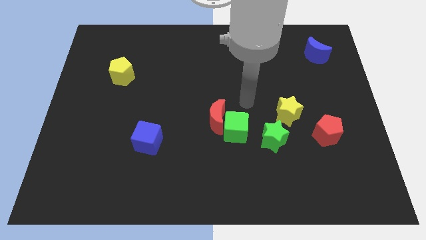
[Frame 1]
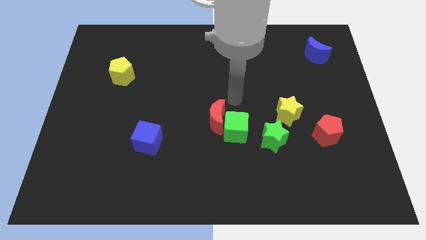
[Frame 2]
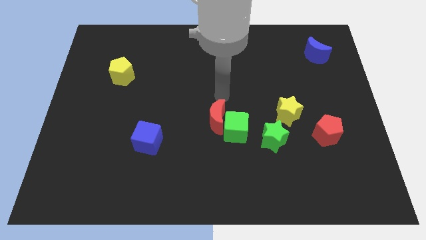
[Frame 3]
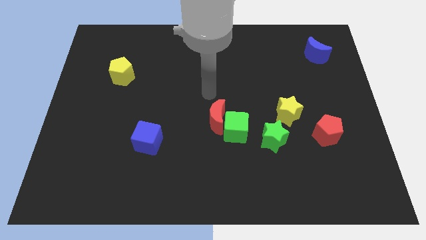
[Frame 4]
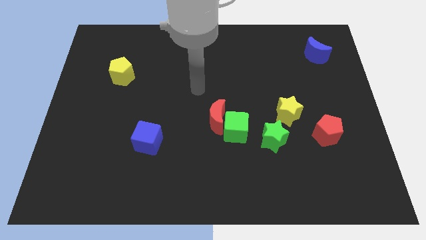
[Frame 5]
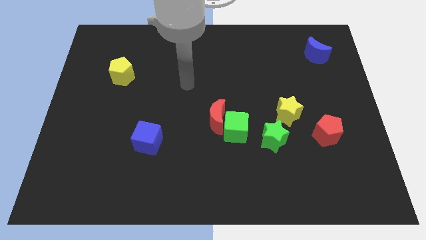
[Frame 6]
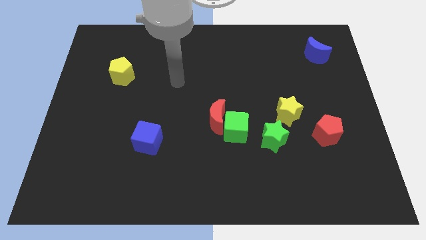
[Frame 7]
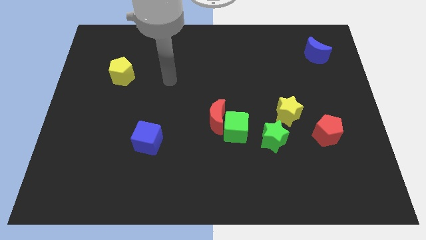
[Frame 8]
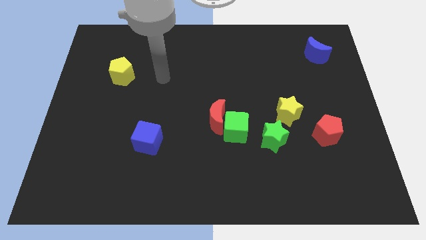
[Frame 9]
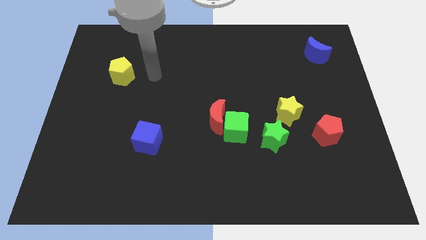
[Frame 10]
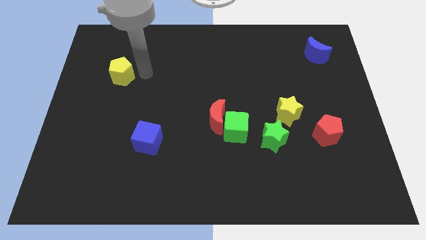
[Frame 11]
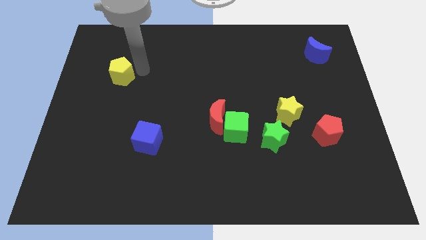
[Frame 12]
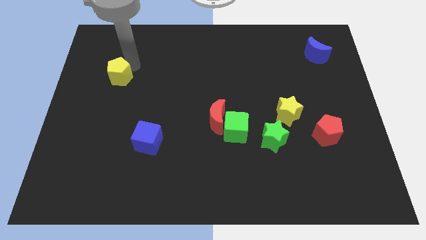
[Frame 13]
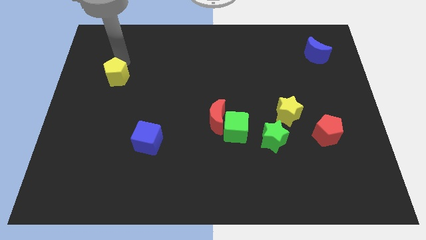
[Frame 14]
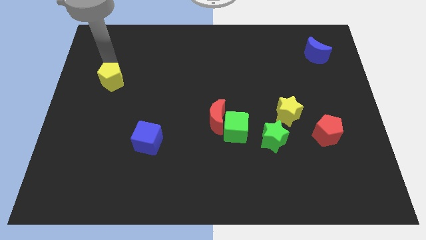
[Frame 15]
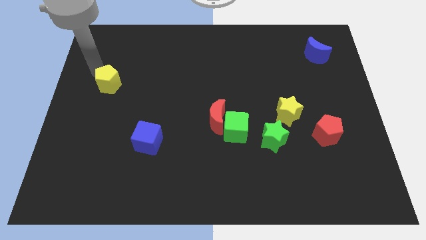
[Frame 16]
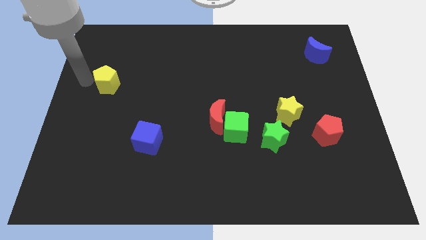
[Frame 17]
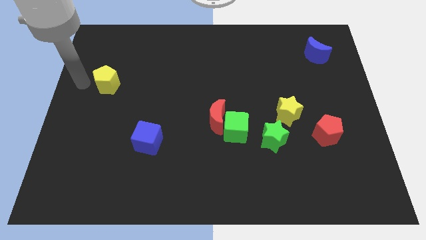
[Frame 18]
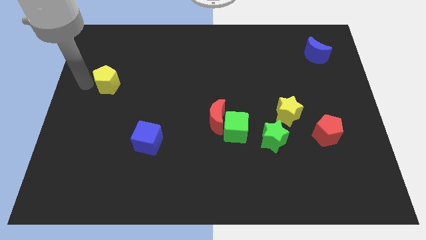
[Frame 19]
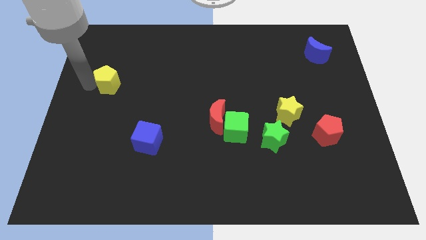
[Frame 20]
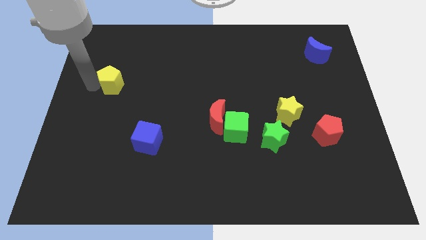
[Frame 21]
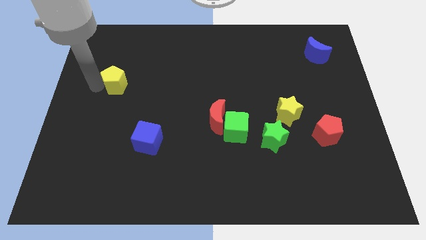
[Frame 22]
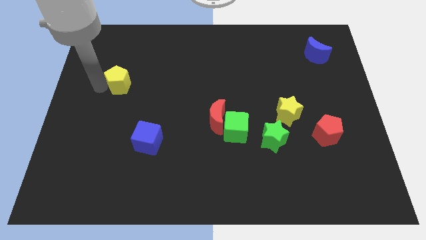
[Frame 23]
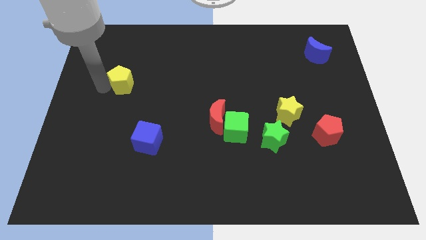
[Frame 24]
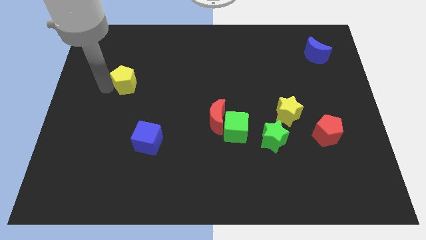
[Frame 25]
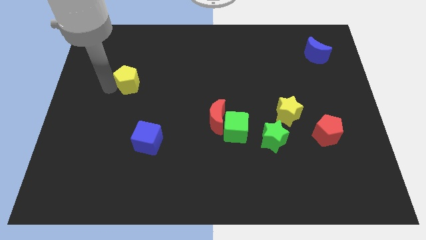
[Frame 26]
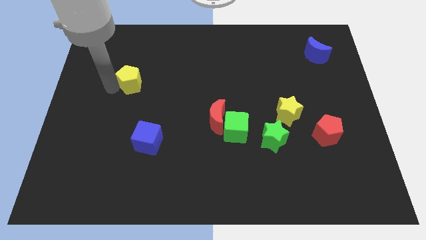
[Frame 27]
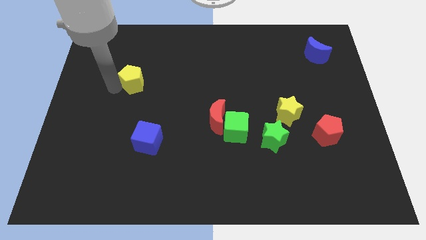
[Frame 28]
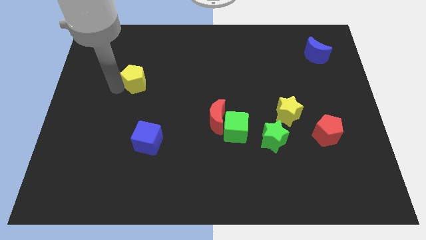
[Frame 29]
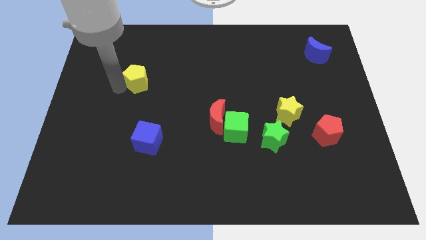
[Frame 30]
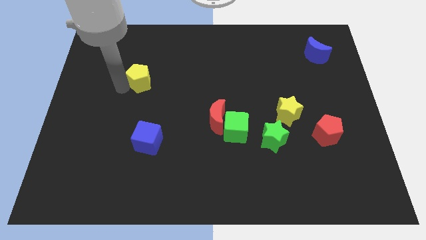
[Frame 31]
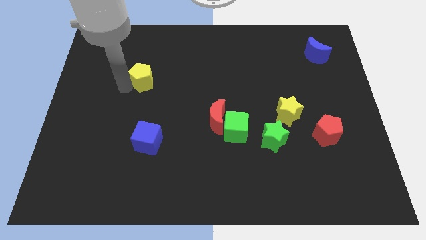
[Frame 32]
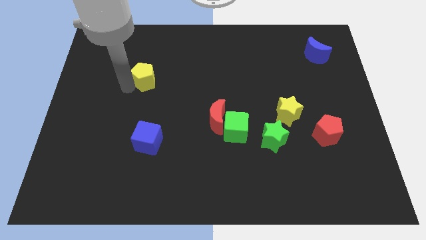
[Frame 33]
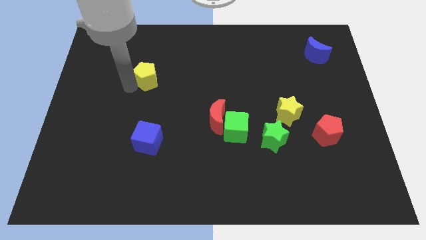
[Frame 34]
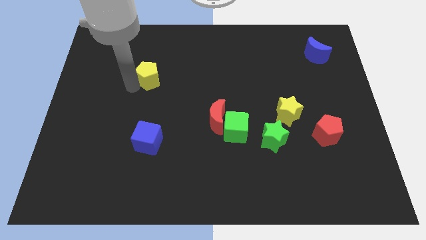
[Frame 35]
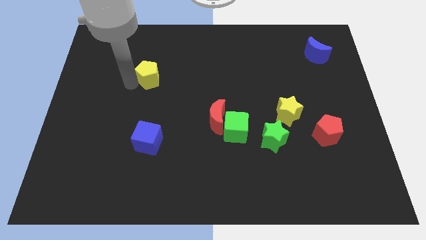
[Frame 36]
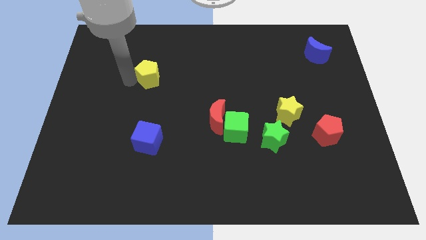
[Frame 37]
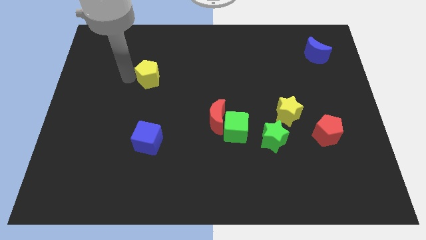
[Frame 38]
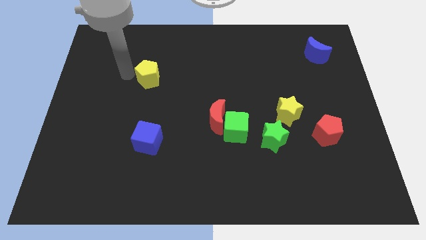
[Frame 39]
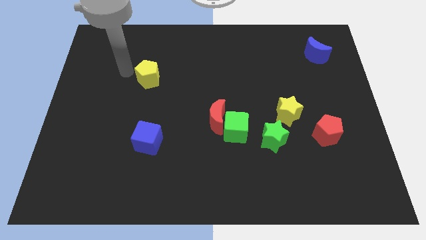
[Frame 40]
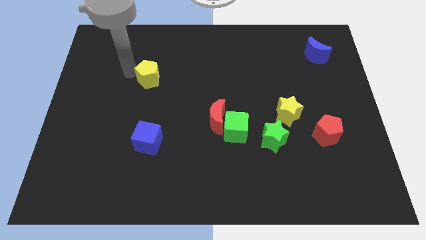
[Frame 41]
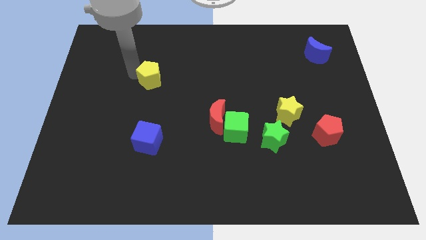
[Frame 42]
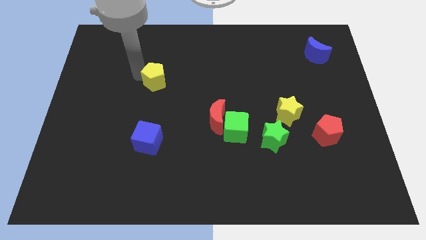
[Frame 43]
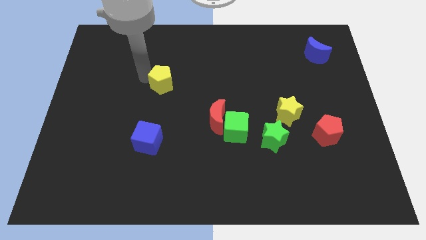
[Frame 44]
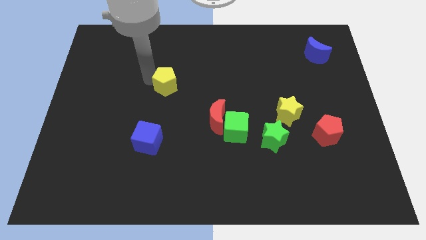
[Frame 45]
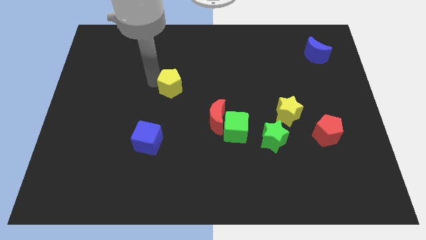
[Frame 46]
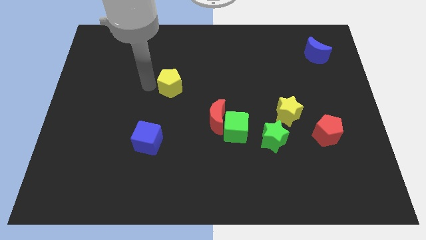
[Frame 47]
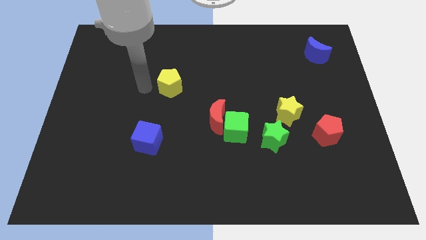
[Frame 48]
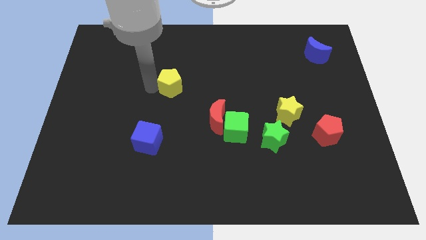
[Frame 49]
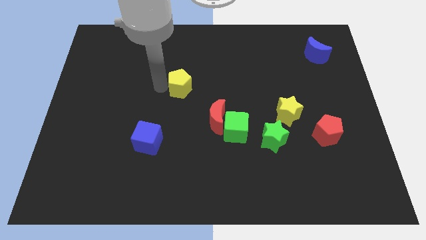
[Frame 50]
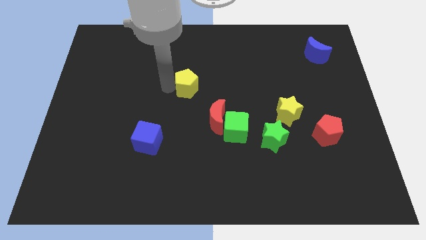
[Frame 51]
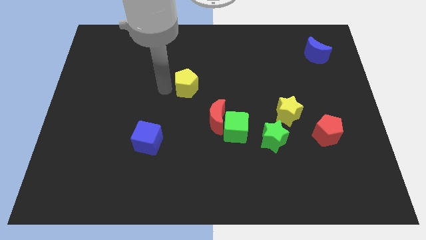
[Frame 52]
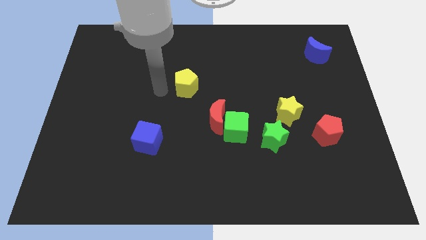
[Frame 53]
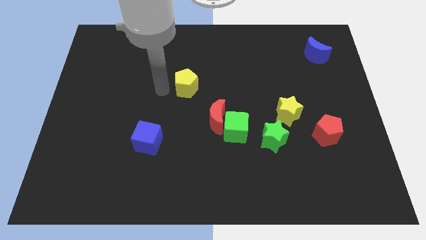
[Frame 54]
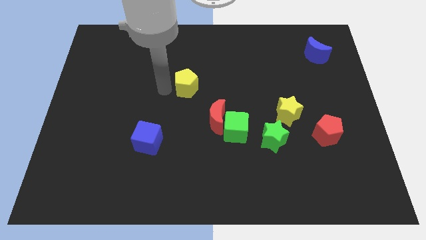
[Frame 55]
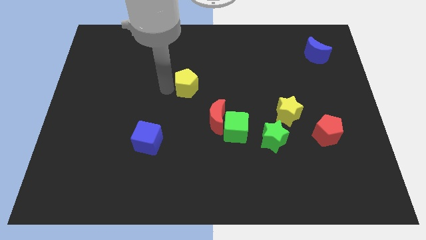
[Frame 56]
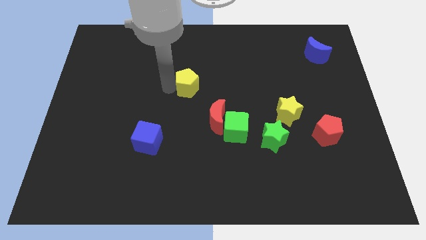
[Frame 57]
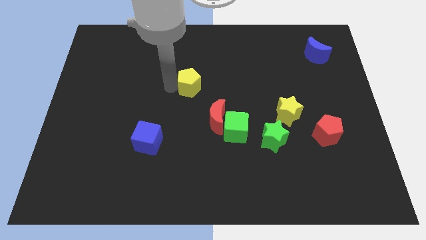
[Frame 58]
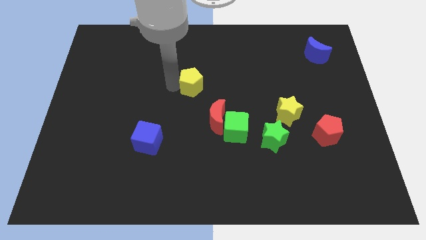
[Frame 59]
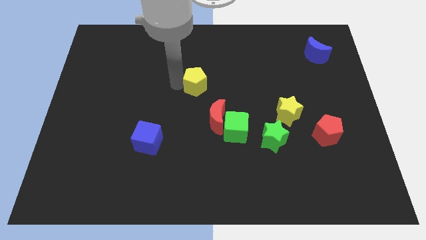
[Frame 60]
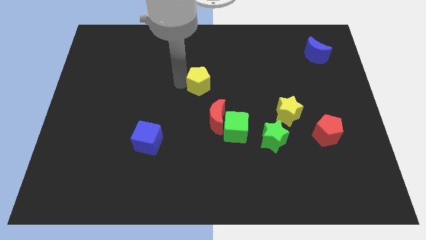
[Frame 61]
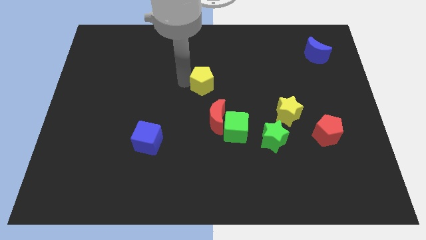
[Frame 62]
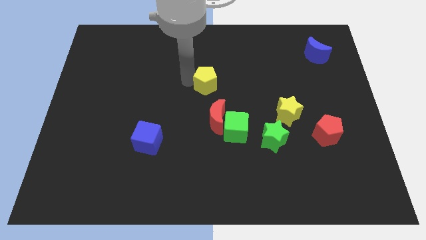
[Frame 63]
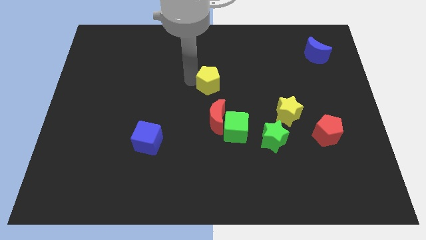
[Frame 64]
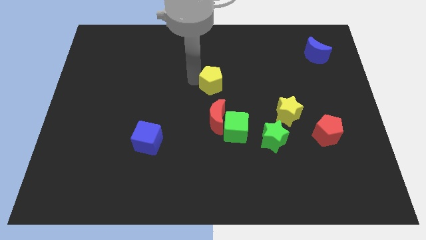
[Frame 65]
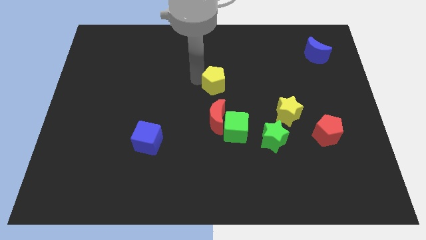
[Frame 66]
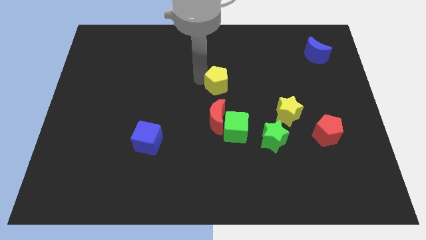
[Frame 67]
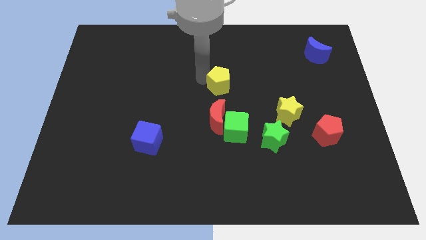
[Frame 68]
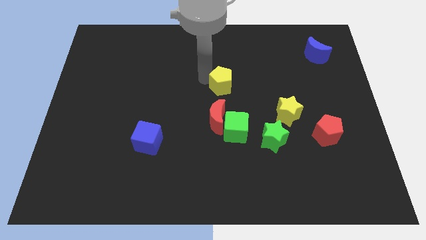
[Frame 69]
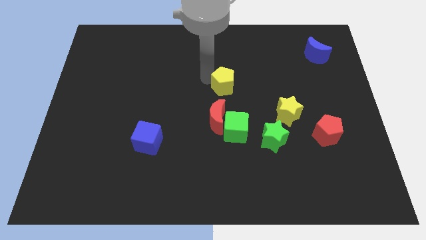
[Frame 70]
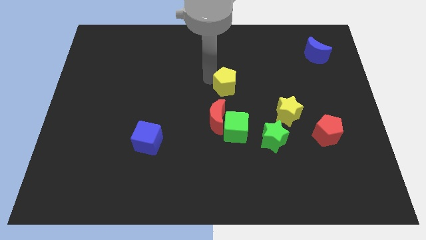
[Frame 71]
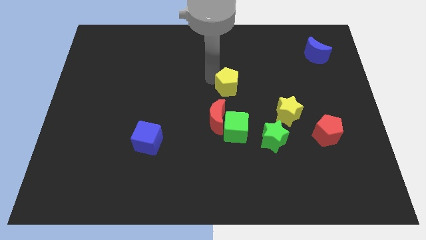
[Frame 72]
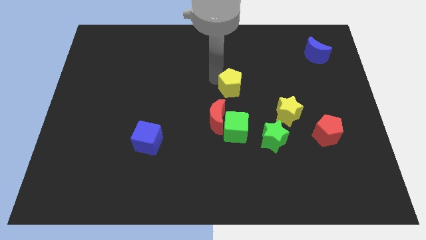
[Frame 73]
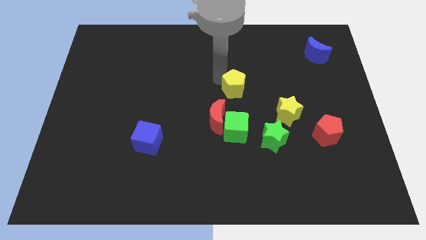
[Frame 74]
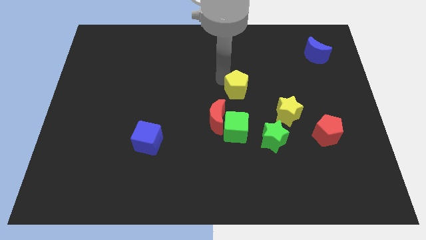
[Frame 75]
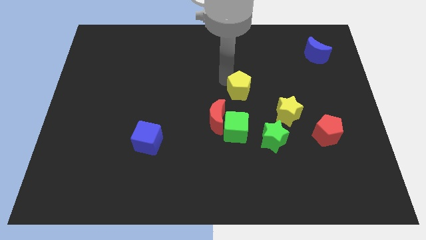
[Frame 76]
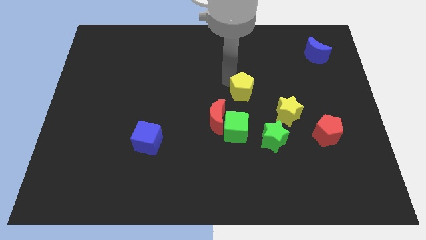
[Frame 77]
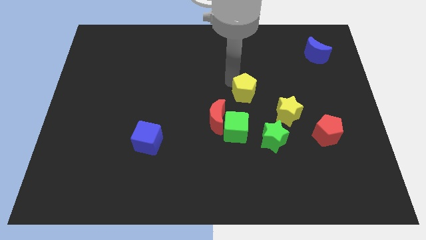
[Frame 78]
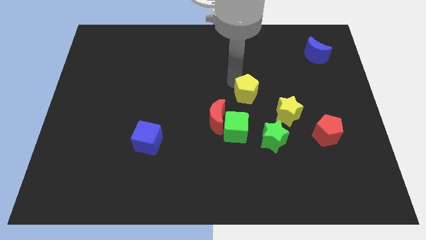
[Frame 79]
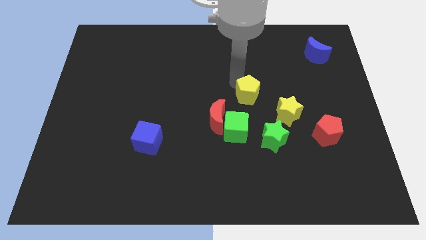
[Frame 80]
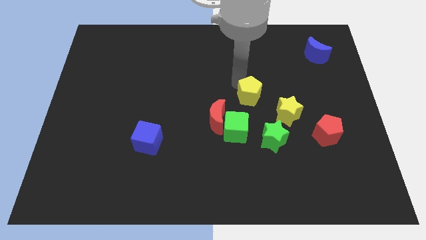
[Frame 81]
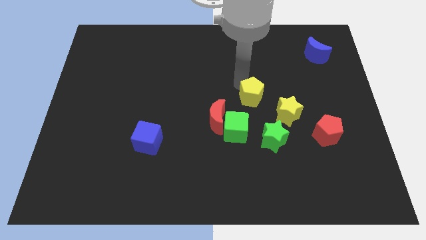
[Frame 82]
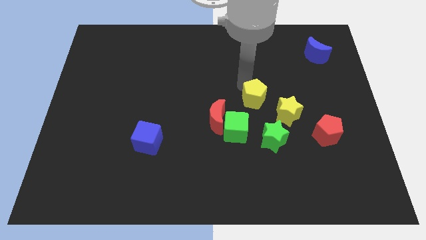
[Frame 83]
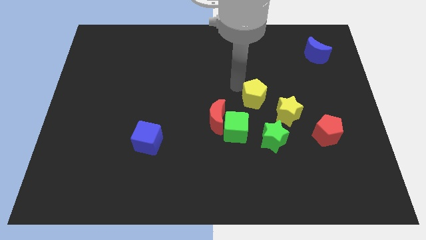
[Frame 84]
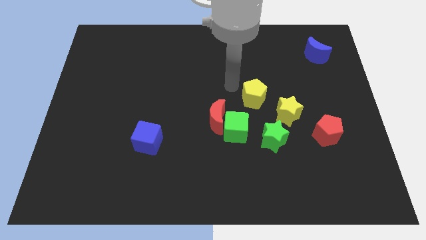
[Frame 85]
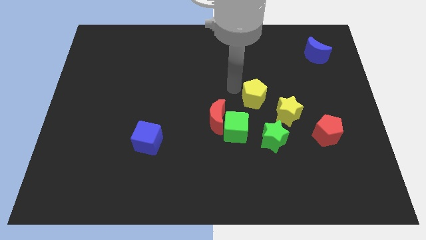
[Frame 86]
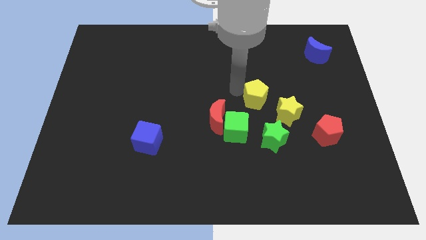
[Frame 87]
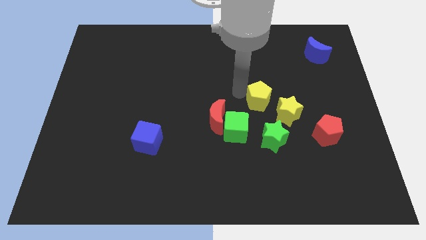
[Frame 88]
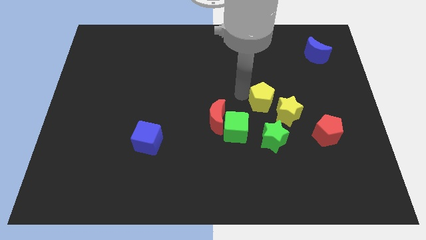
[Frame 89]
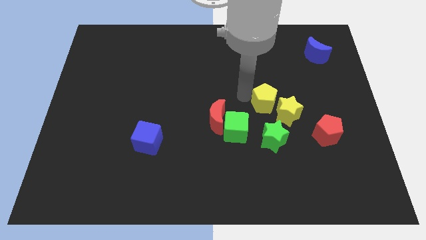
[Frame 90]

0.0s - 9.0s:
move the yellow pentagon to the yellow star
